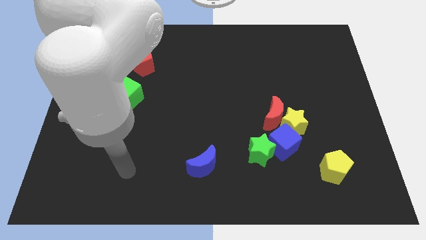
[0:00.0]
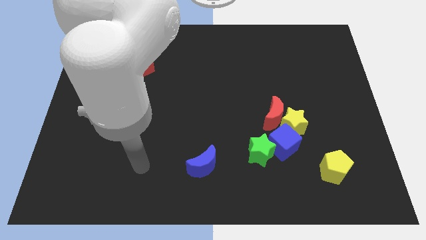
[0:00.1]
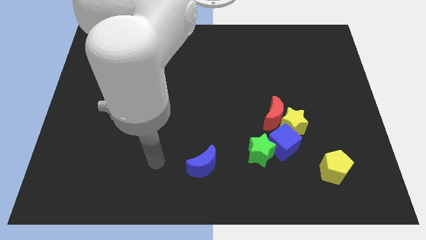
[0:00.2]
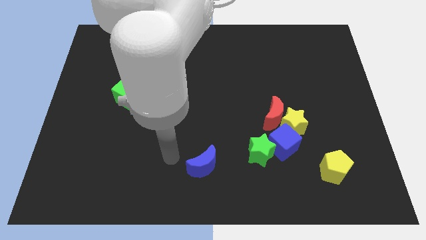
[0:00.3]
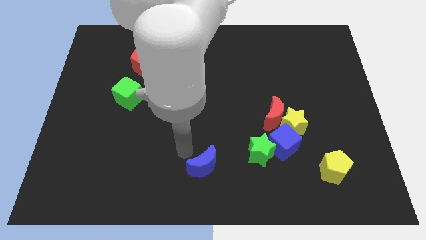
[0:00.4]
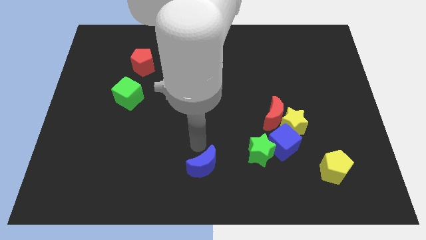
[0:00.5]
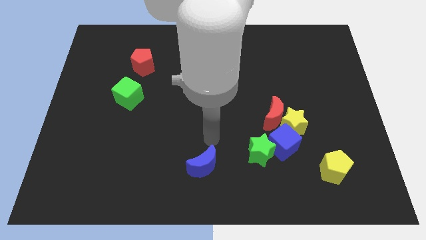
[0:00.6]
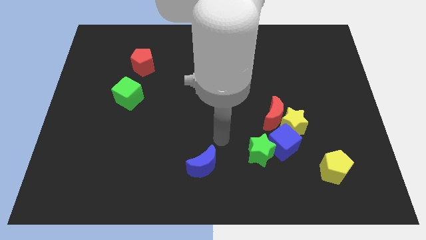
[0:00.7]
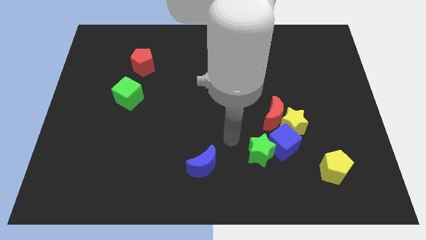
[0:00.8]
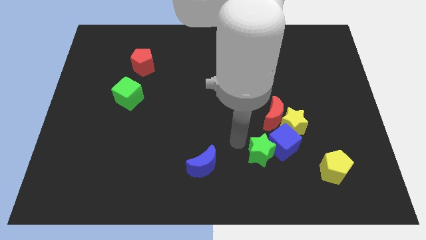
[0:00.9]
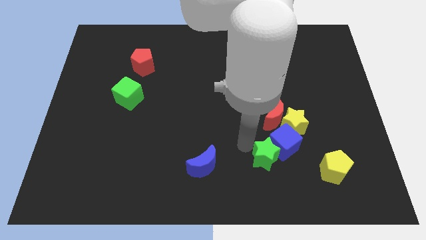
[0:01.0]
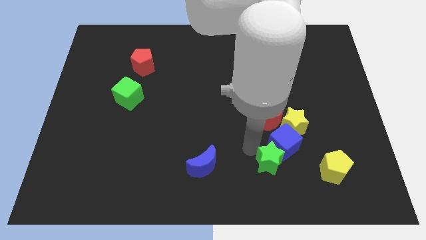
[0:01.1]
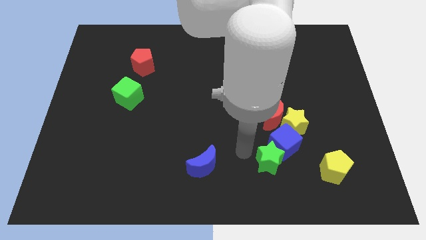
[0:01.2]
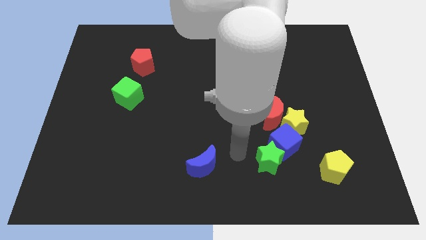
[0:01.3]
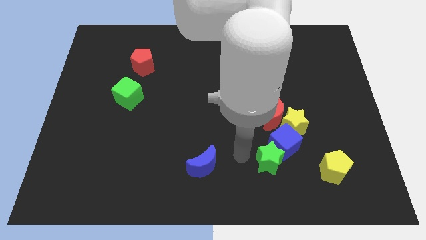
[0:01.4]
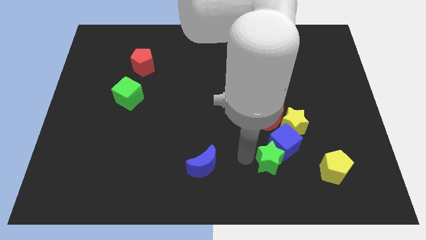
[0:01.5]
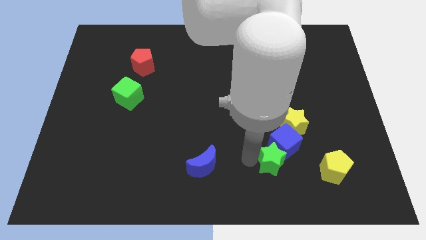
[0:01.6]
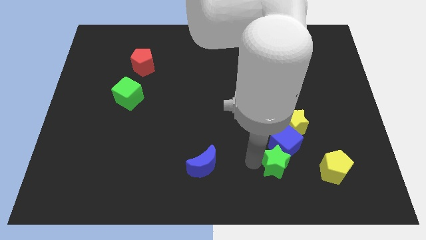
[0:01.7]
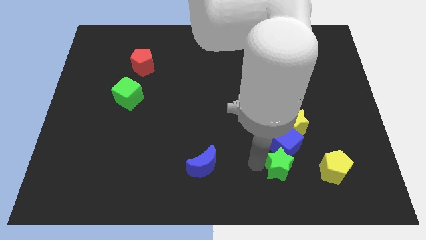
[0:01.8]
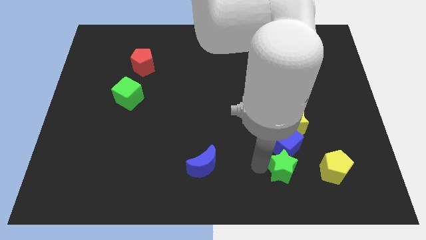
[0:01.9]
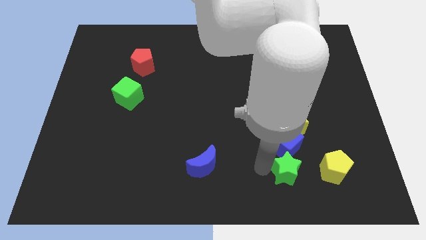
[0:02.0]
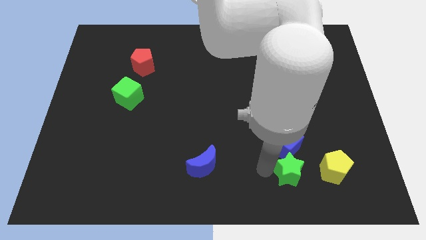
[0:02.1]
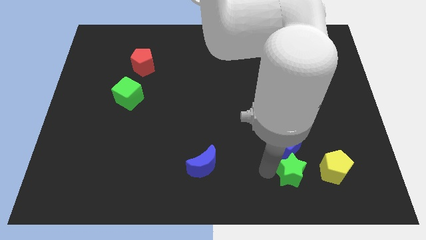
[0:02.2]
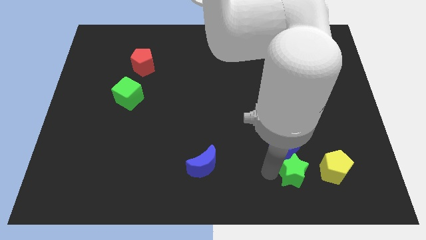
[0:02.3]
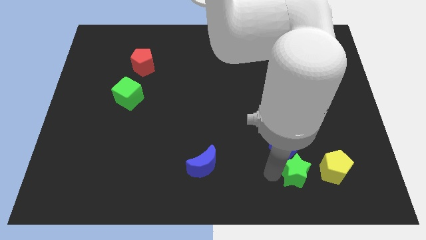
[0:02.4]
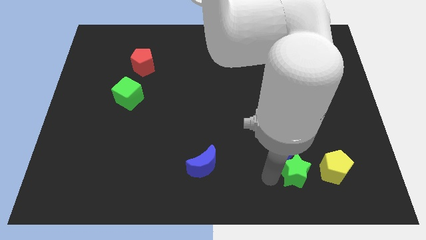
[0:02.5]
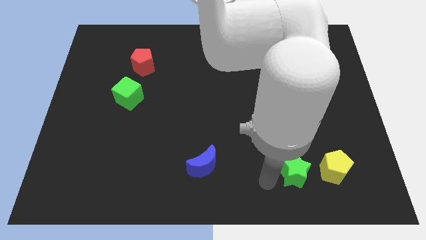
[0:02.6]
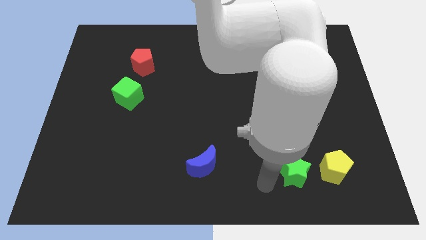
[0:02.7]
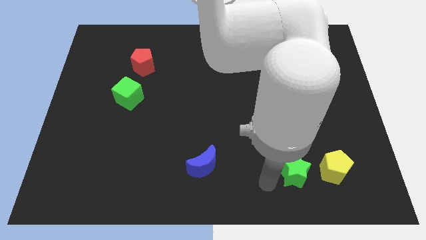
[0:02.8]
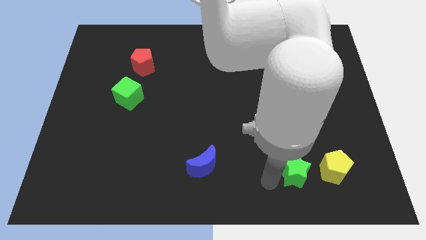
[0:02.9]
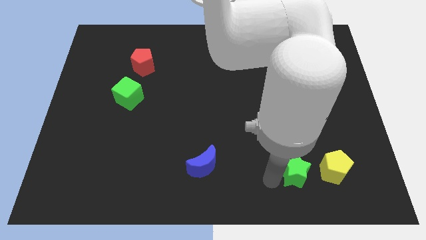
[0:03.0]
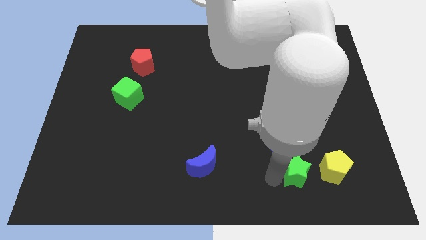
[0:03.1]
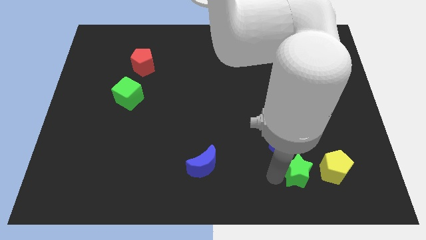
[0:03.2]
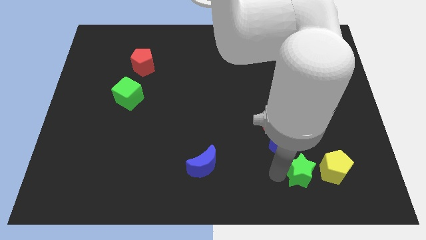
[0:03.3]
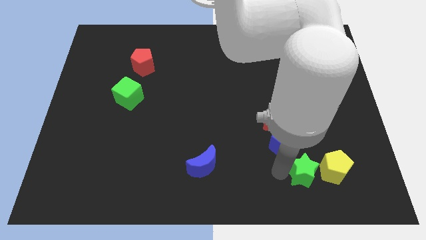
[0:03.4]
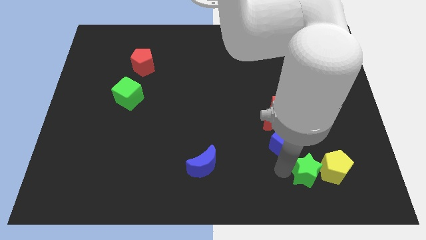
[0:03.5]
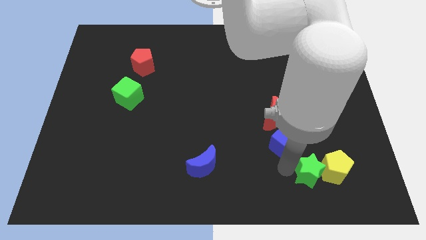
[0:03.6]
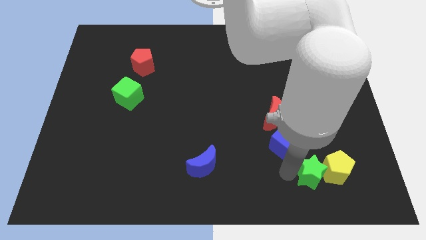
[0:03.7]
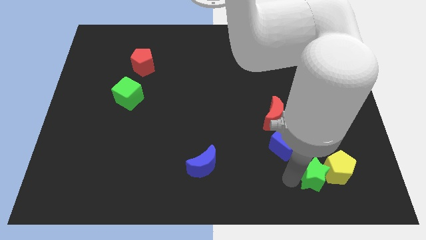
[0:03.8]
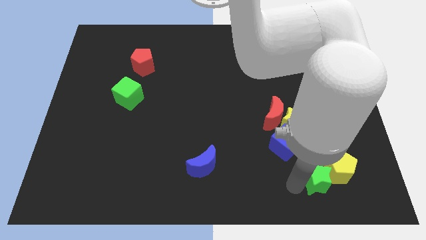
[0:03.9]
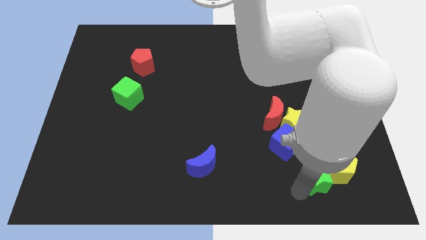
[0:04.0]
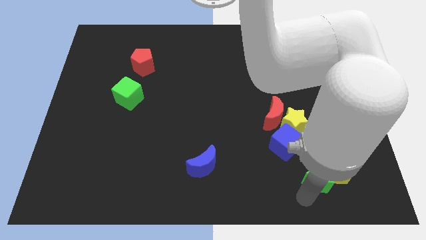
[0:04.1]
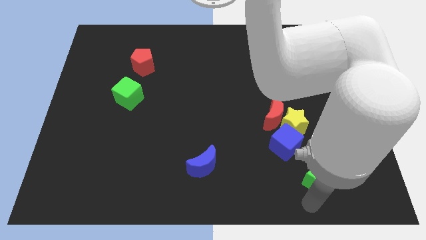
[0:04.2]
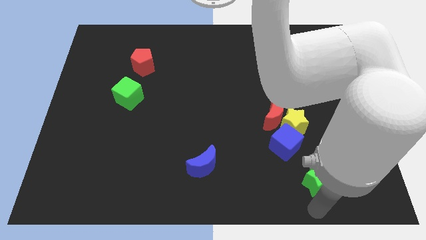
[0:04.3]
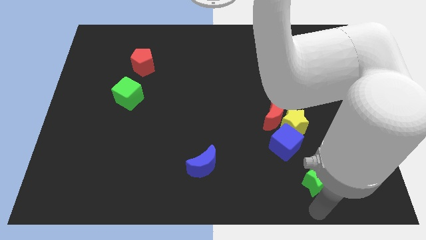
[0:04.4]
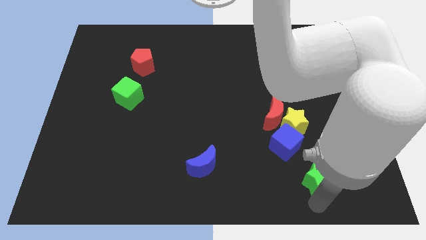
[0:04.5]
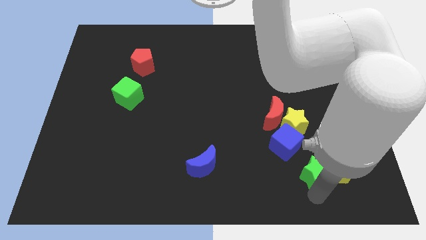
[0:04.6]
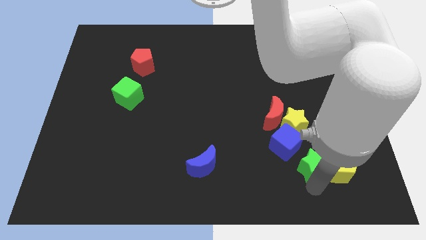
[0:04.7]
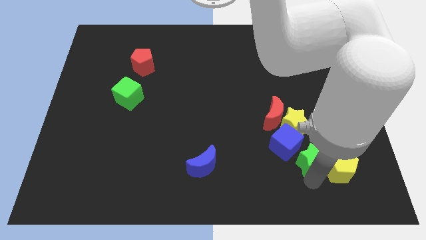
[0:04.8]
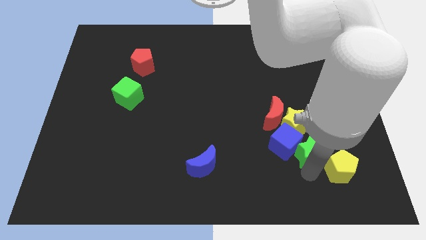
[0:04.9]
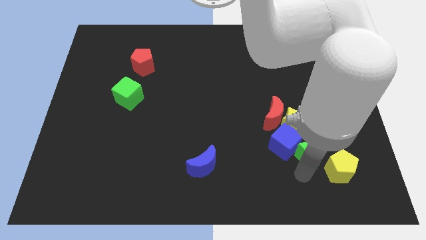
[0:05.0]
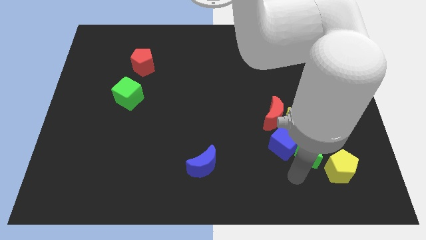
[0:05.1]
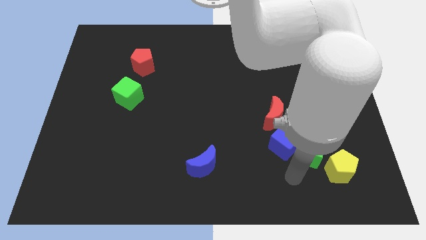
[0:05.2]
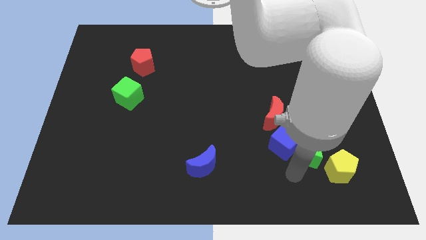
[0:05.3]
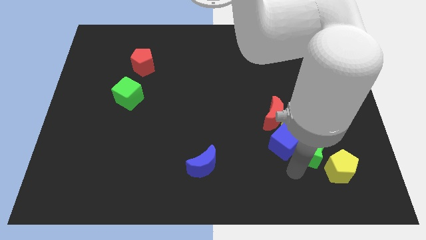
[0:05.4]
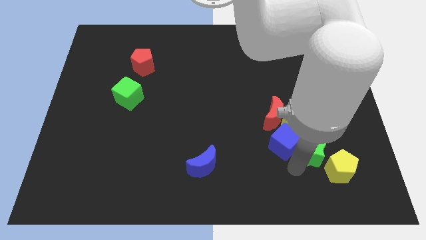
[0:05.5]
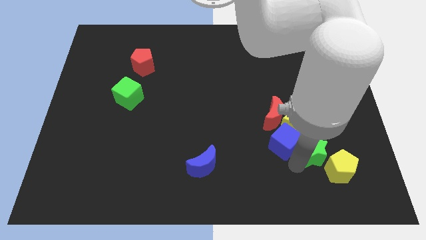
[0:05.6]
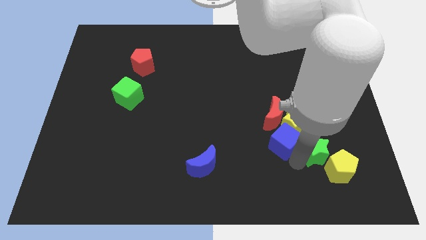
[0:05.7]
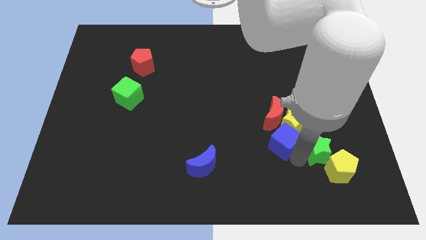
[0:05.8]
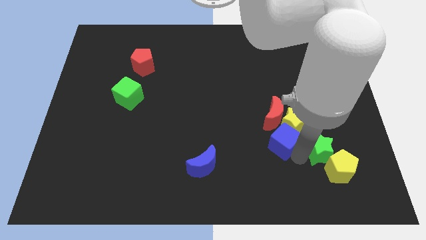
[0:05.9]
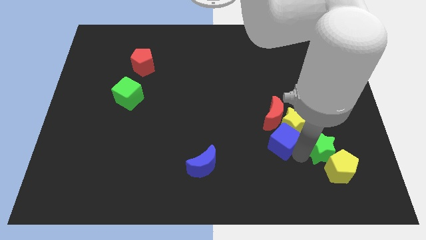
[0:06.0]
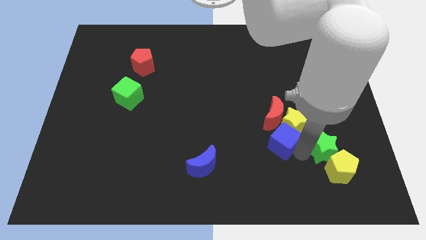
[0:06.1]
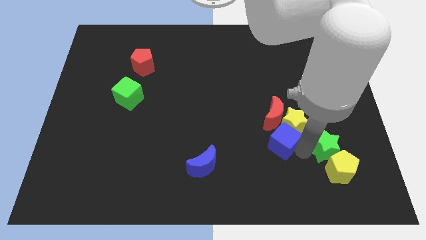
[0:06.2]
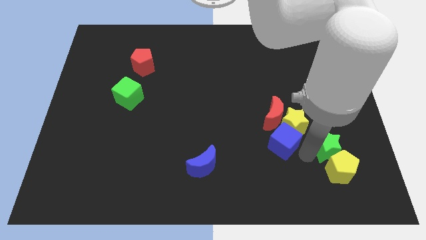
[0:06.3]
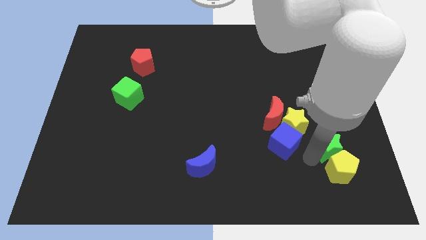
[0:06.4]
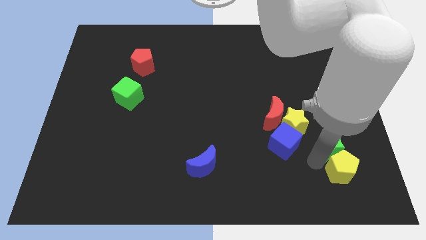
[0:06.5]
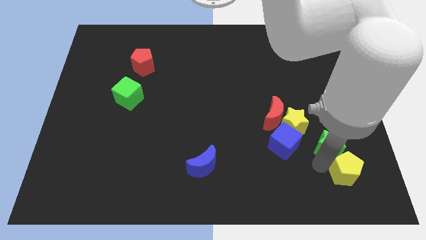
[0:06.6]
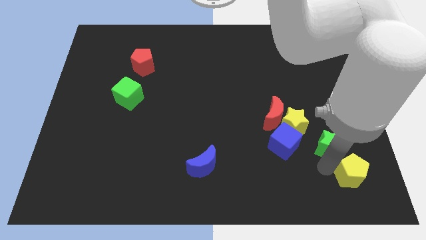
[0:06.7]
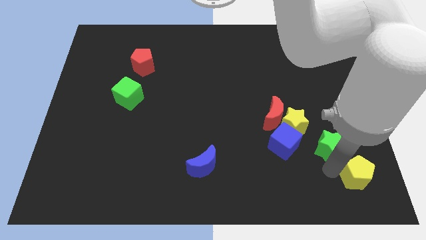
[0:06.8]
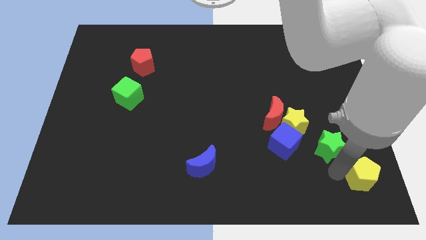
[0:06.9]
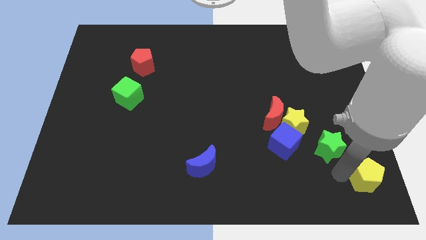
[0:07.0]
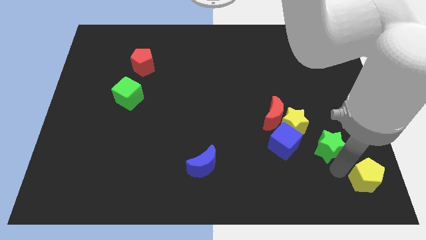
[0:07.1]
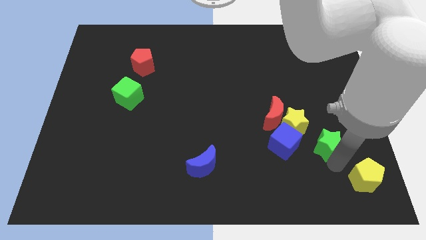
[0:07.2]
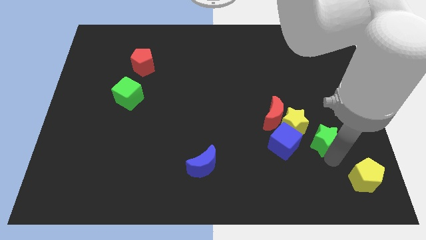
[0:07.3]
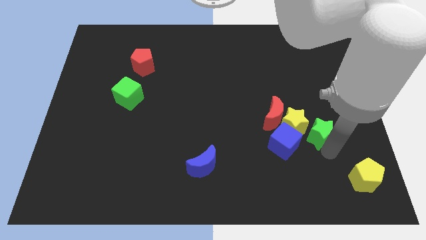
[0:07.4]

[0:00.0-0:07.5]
move the green star diagonally up and to the right of the blue cube

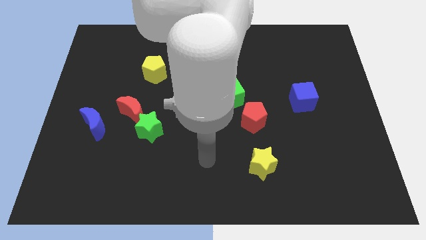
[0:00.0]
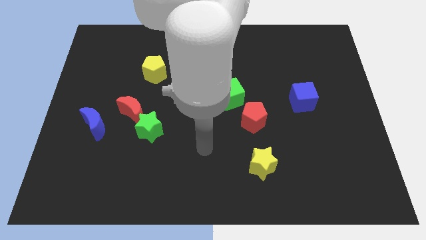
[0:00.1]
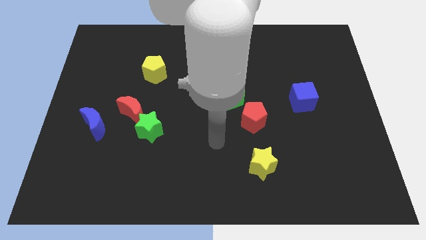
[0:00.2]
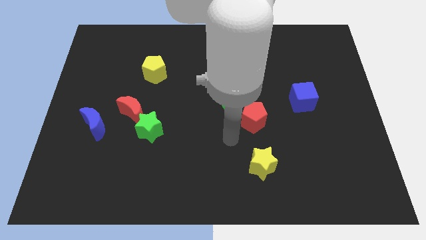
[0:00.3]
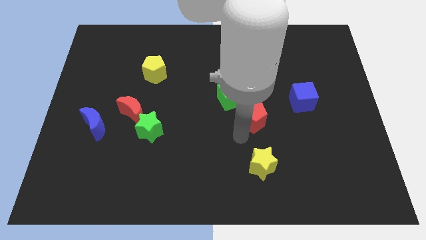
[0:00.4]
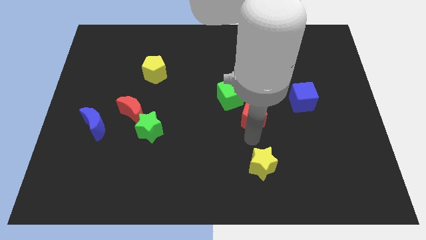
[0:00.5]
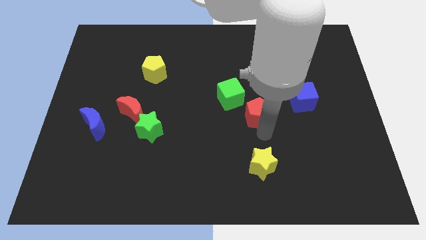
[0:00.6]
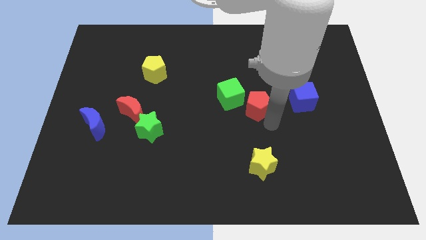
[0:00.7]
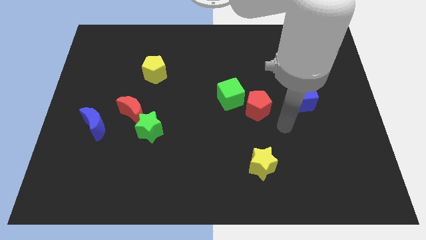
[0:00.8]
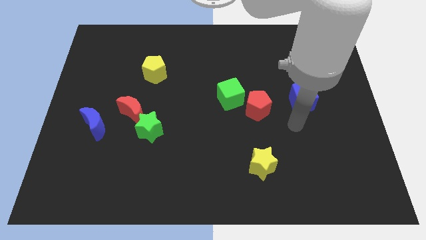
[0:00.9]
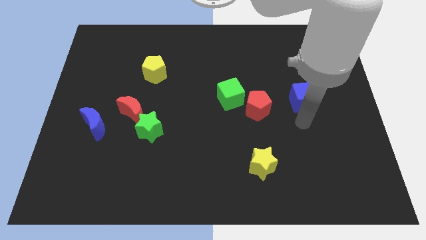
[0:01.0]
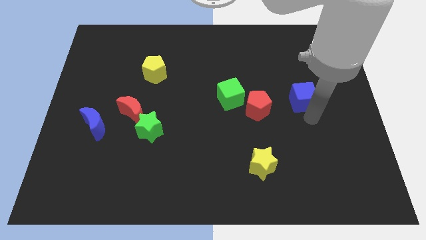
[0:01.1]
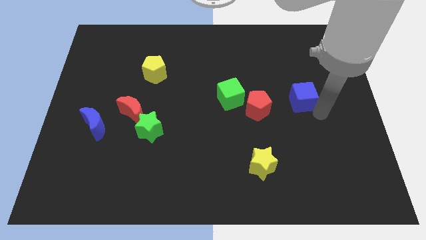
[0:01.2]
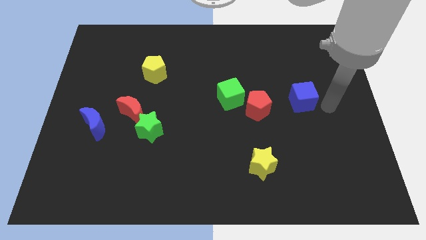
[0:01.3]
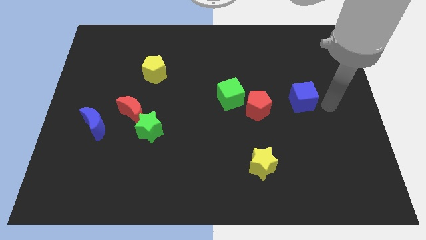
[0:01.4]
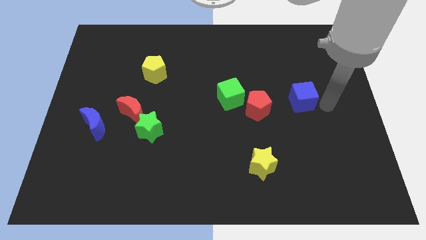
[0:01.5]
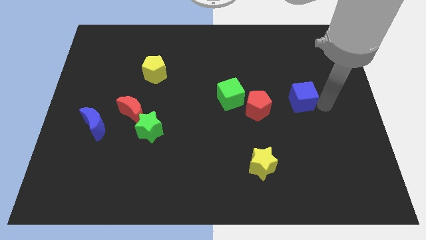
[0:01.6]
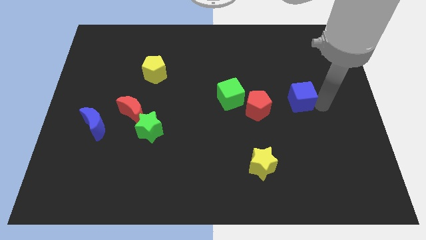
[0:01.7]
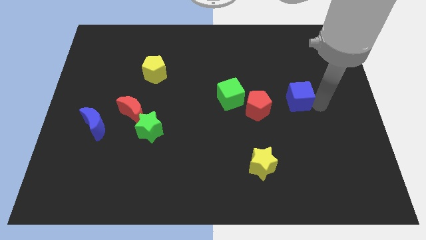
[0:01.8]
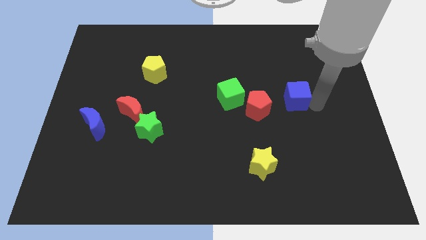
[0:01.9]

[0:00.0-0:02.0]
slide the blue cube to the top right of the red pentagon
